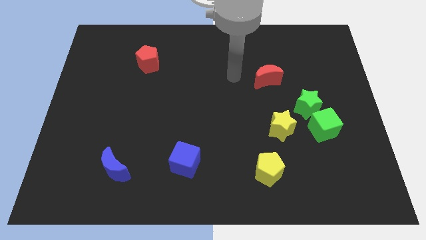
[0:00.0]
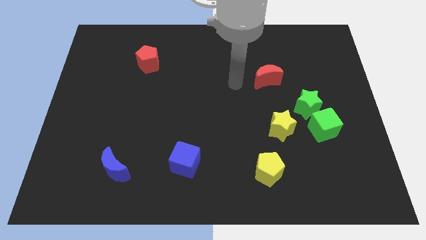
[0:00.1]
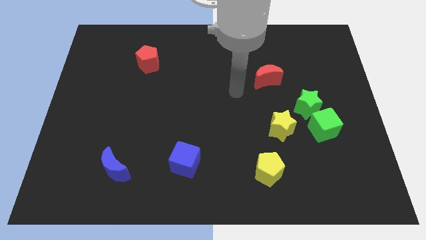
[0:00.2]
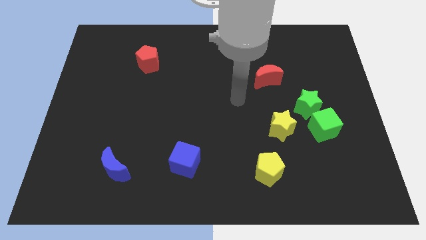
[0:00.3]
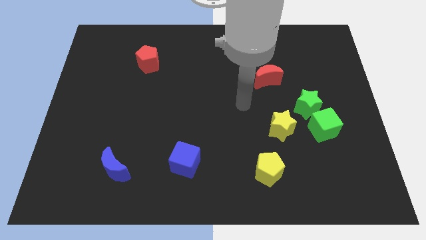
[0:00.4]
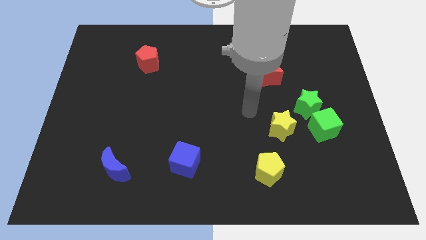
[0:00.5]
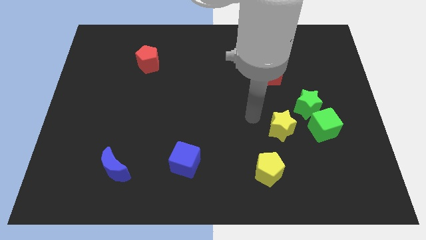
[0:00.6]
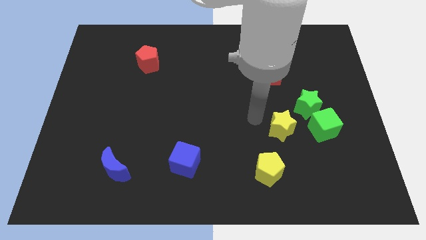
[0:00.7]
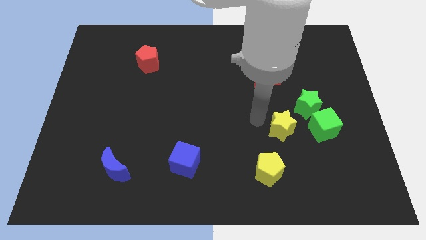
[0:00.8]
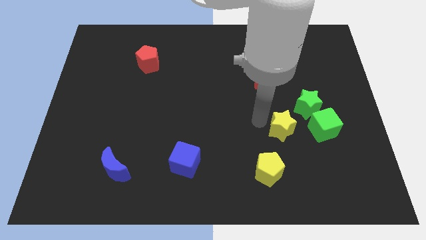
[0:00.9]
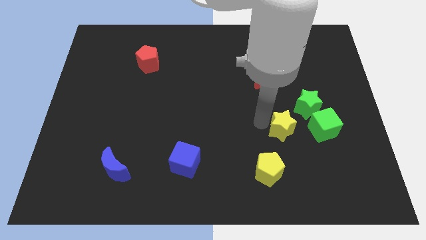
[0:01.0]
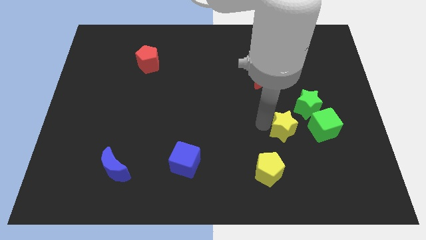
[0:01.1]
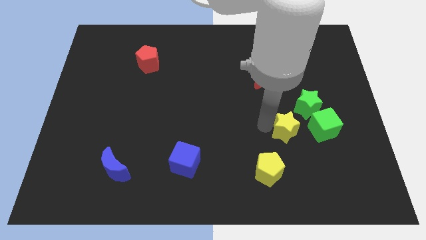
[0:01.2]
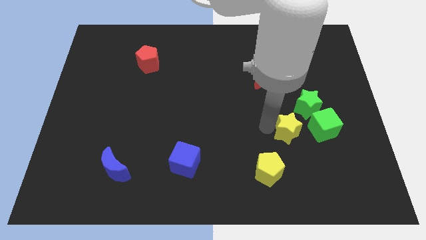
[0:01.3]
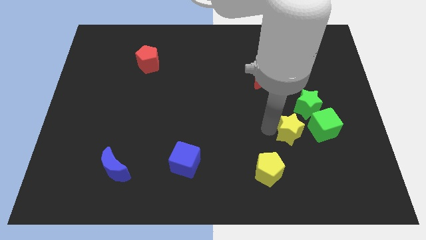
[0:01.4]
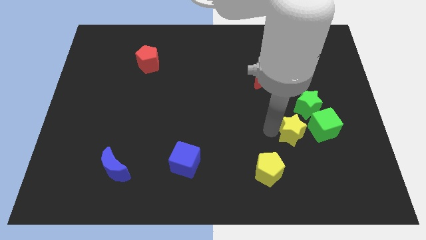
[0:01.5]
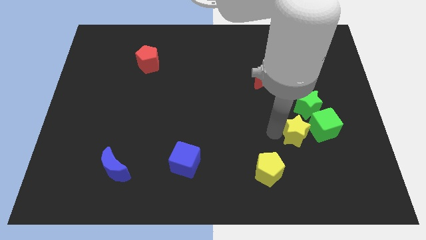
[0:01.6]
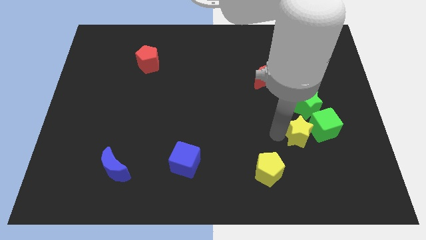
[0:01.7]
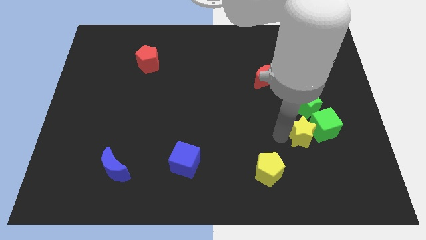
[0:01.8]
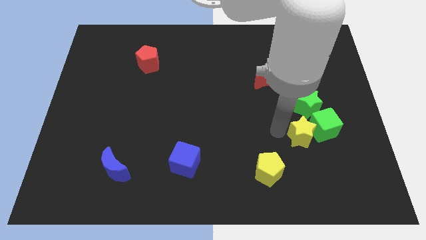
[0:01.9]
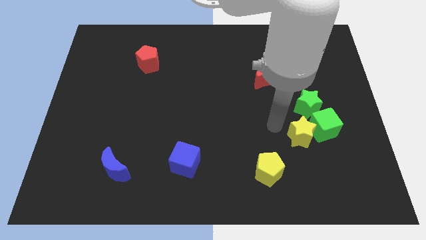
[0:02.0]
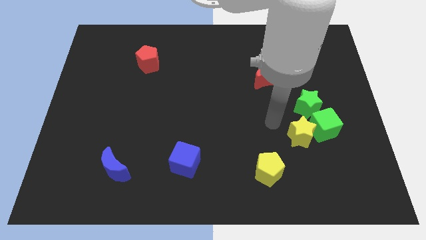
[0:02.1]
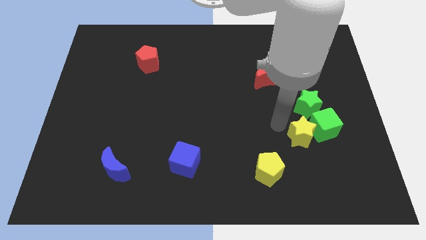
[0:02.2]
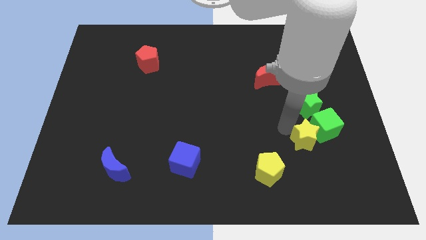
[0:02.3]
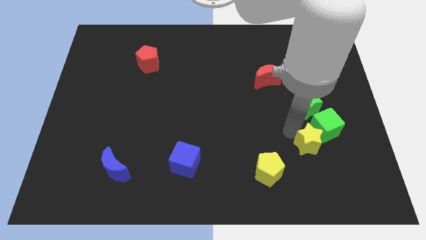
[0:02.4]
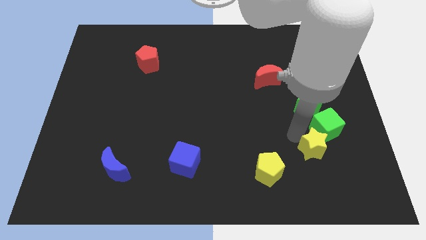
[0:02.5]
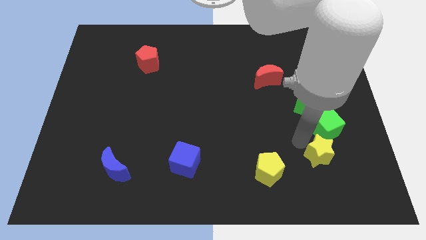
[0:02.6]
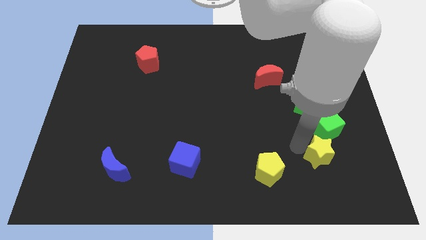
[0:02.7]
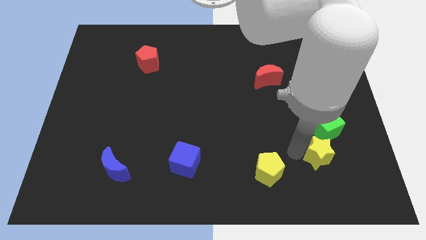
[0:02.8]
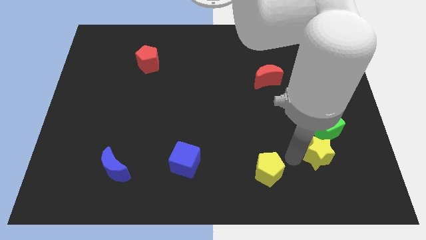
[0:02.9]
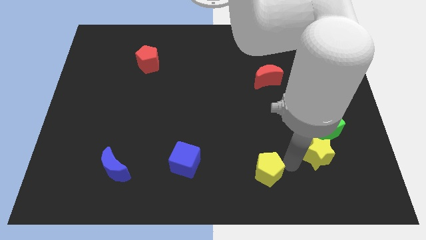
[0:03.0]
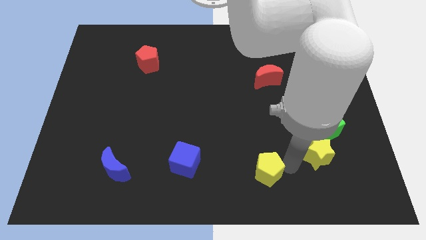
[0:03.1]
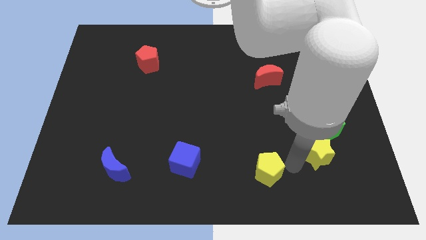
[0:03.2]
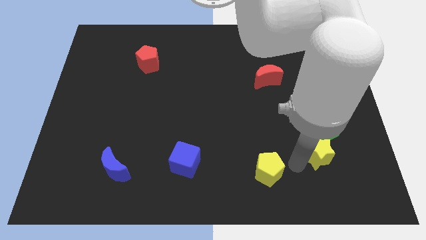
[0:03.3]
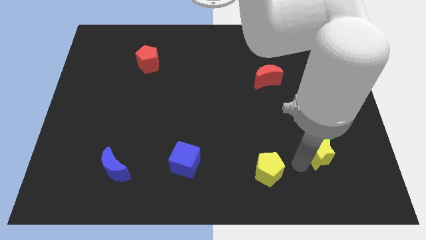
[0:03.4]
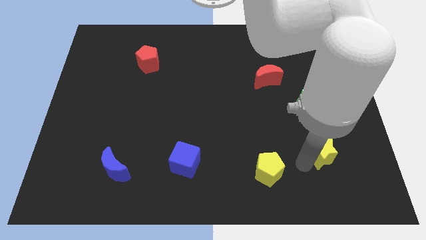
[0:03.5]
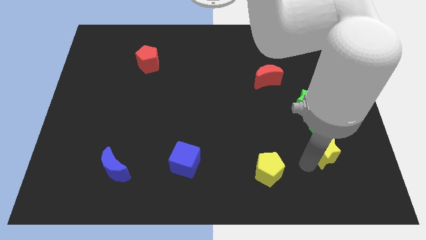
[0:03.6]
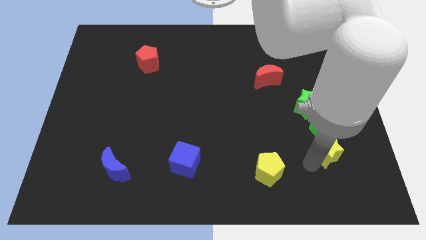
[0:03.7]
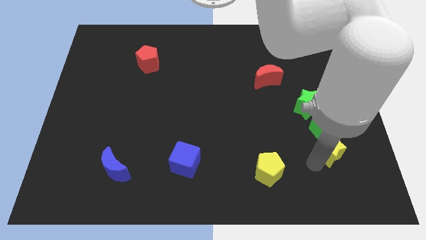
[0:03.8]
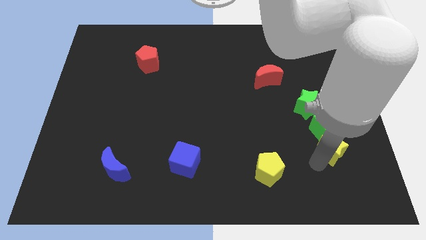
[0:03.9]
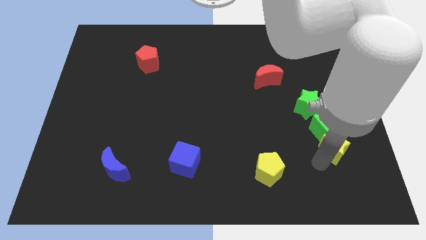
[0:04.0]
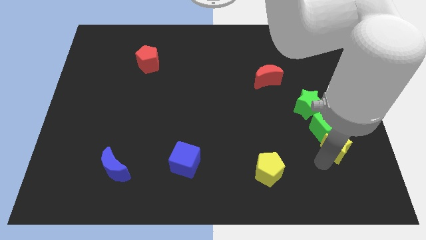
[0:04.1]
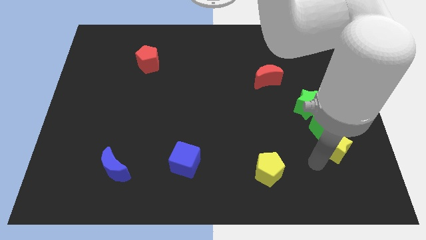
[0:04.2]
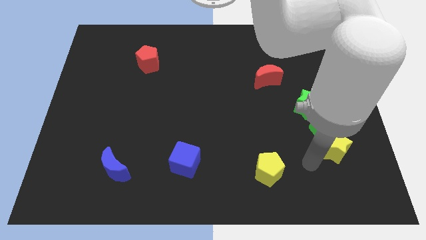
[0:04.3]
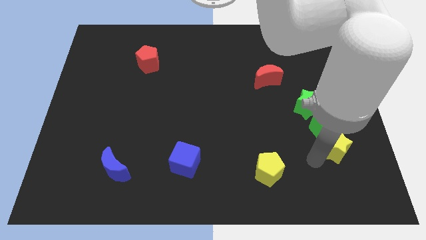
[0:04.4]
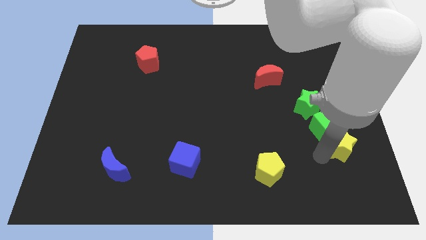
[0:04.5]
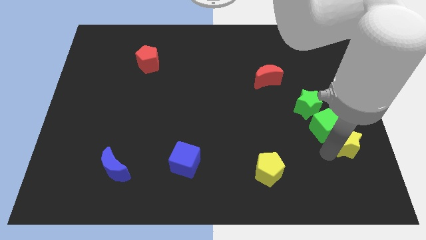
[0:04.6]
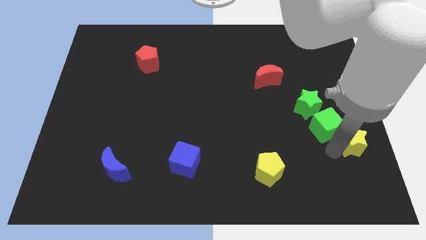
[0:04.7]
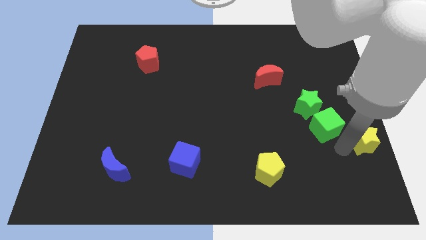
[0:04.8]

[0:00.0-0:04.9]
push the yellow star to the right side of the board

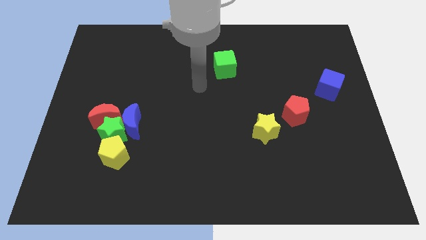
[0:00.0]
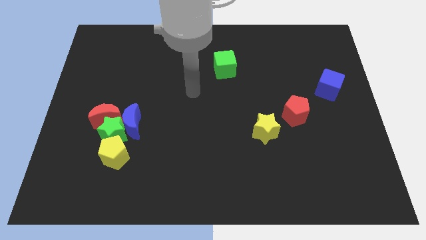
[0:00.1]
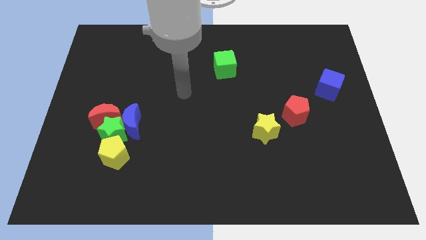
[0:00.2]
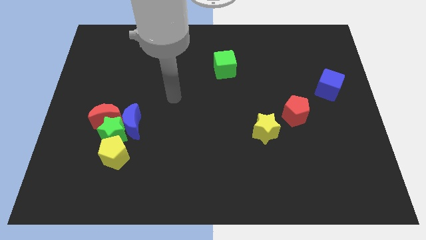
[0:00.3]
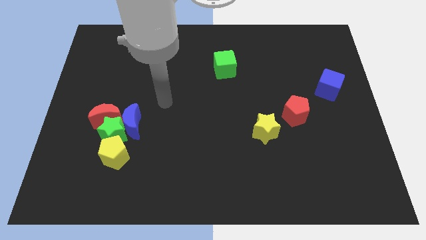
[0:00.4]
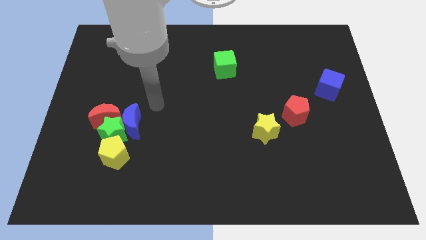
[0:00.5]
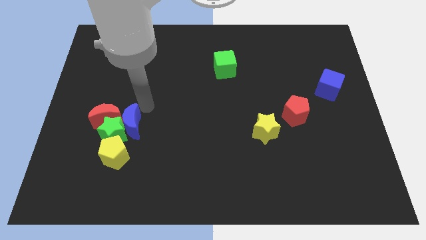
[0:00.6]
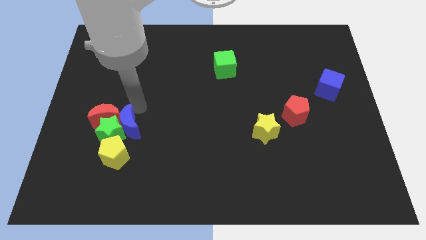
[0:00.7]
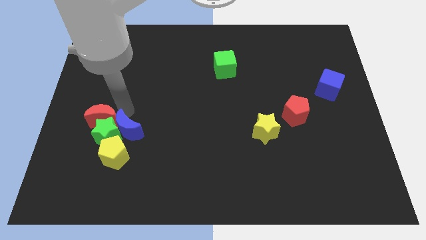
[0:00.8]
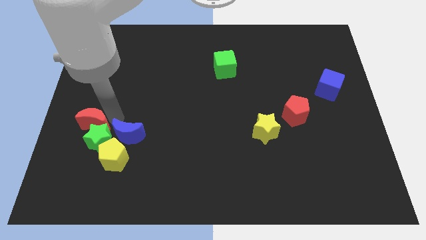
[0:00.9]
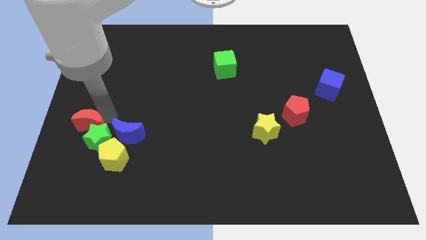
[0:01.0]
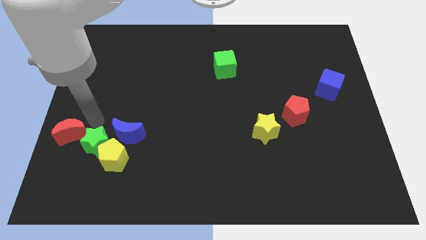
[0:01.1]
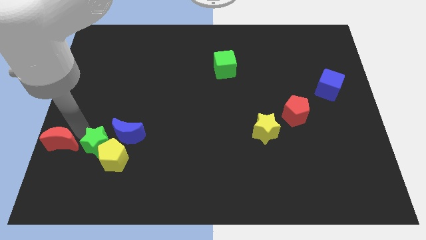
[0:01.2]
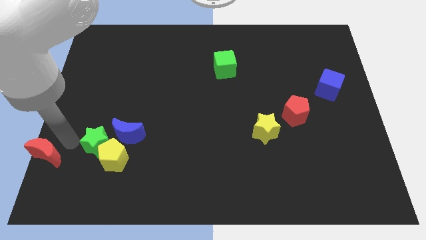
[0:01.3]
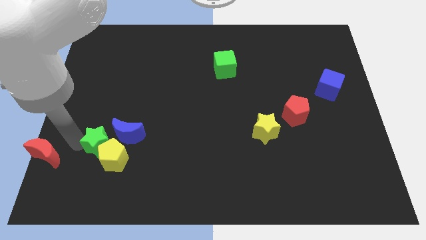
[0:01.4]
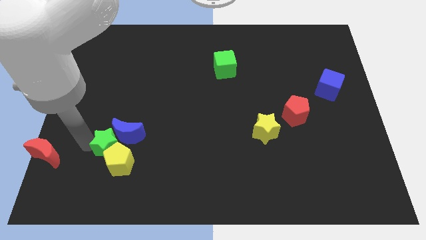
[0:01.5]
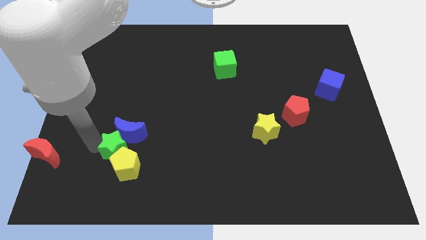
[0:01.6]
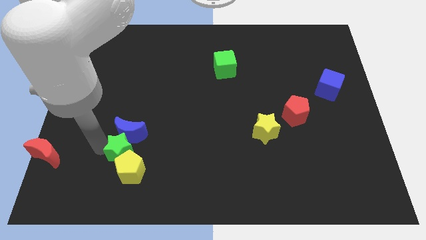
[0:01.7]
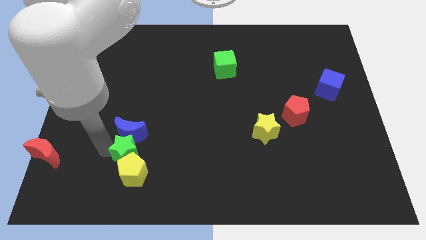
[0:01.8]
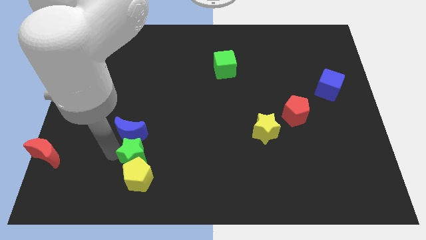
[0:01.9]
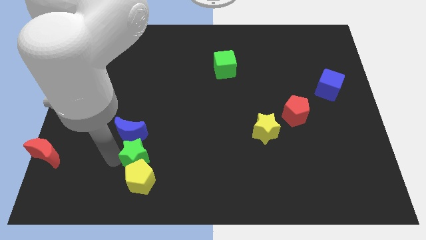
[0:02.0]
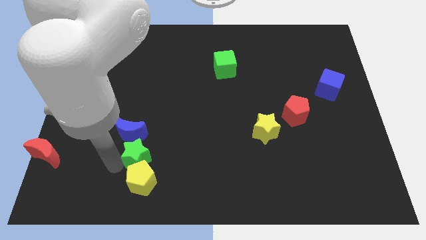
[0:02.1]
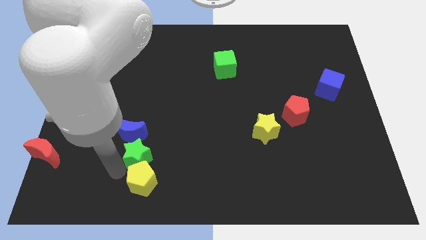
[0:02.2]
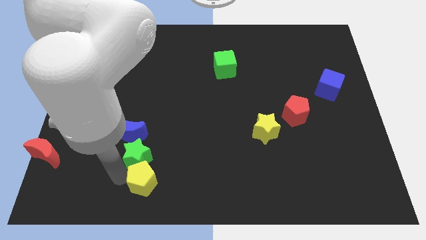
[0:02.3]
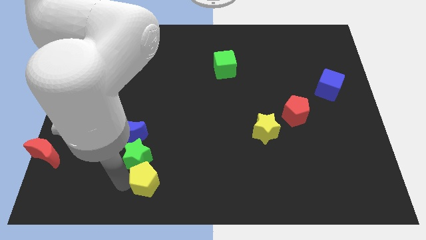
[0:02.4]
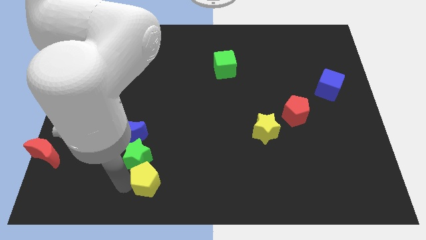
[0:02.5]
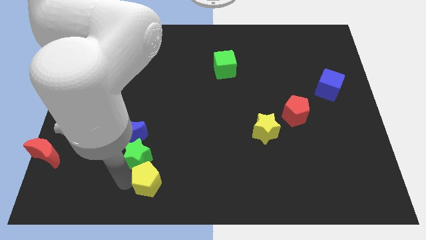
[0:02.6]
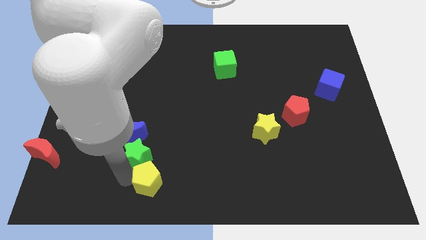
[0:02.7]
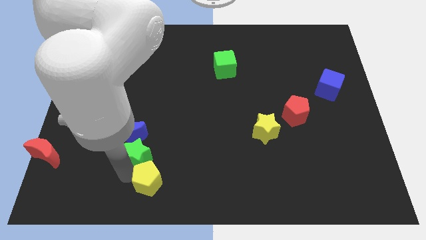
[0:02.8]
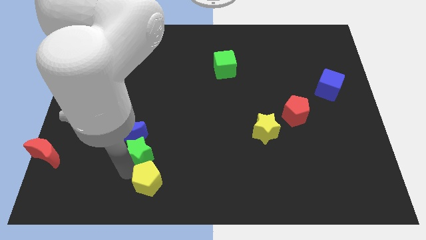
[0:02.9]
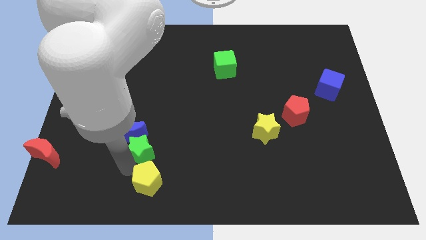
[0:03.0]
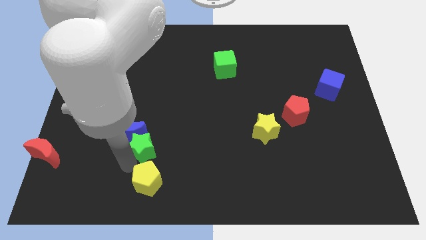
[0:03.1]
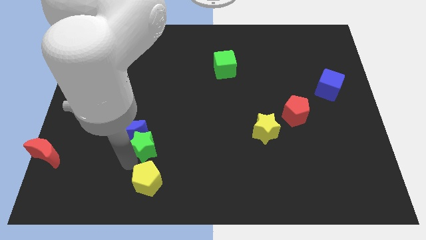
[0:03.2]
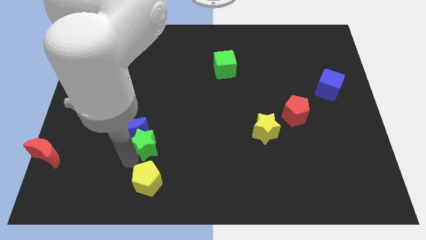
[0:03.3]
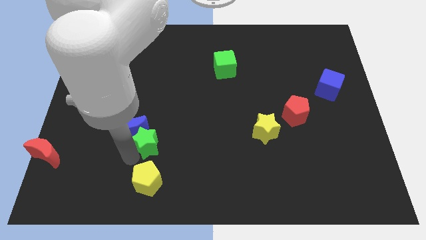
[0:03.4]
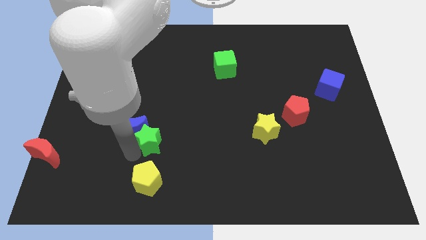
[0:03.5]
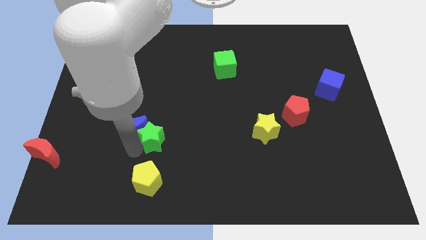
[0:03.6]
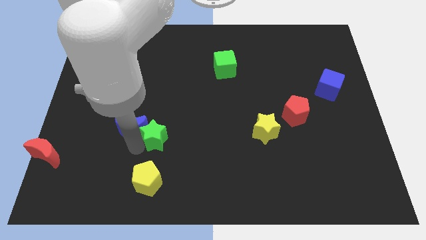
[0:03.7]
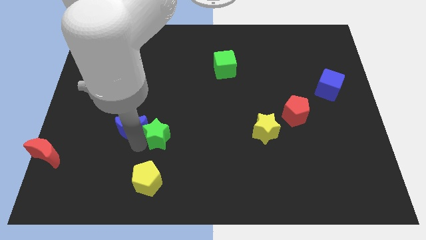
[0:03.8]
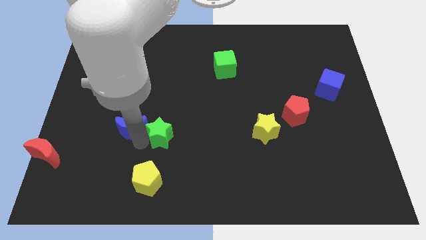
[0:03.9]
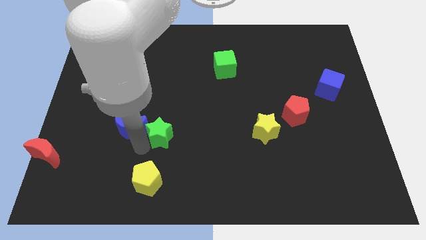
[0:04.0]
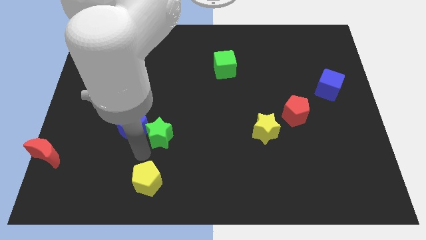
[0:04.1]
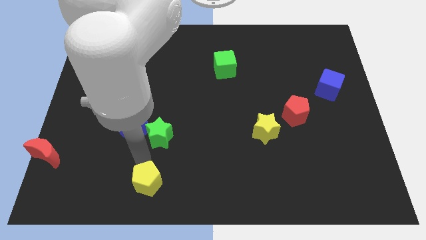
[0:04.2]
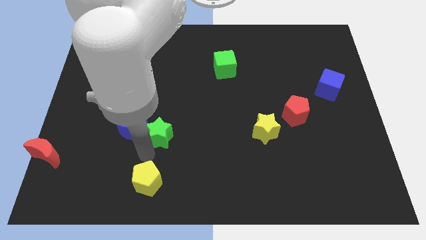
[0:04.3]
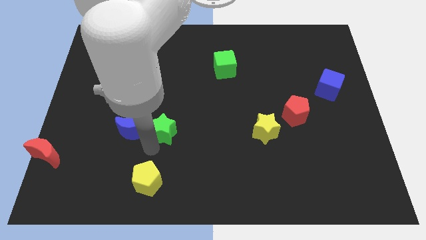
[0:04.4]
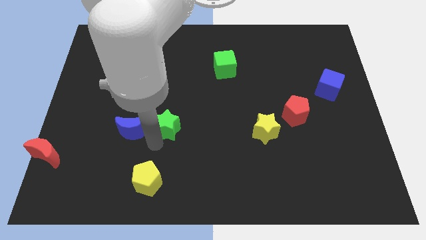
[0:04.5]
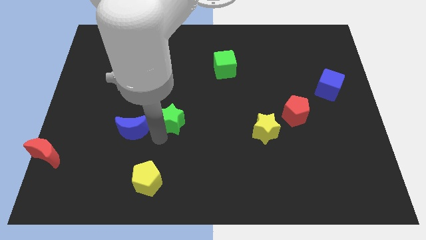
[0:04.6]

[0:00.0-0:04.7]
move the green star to the middle
